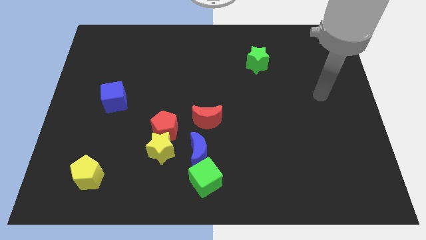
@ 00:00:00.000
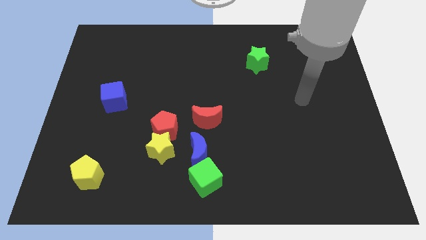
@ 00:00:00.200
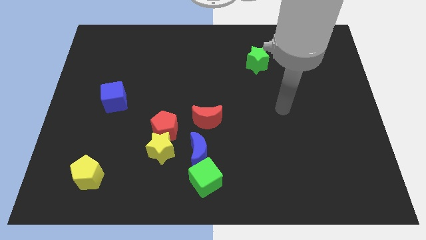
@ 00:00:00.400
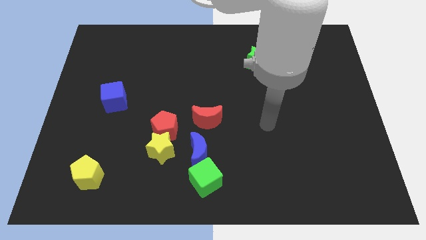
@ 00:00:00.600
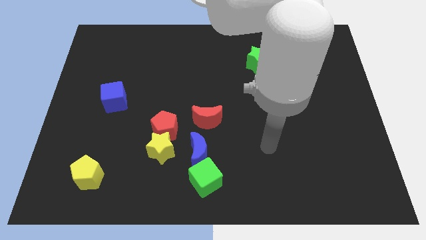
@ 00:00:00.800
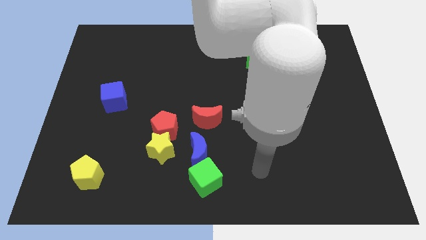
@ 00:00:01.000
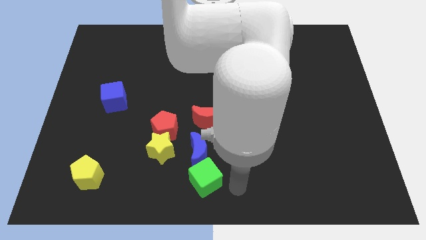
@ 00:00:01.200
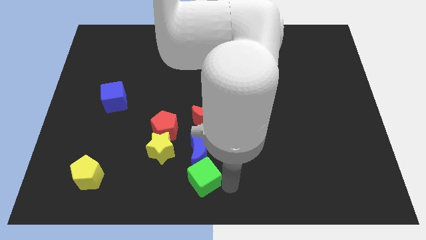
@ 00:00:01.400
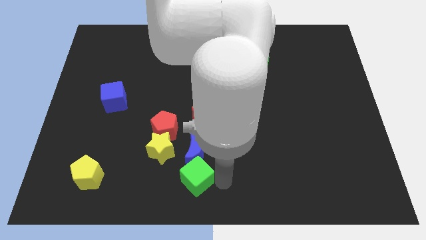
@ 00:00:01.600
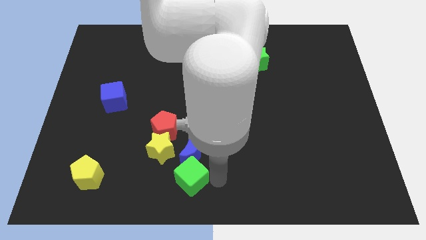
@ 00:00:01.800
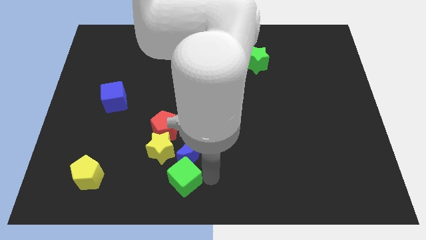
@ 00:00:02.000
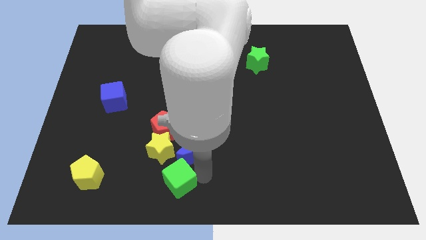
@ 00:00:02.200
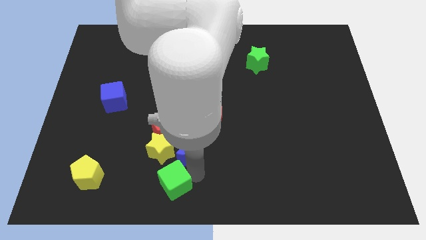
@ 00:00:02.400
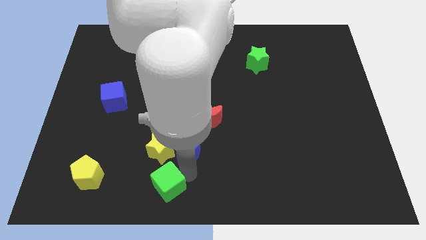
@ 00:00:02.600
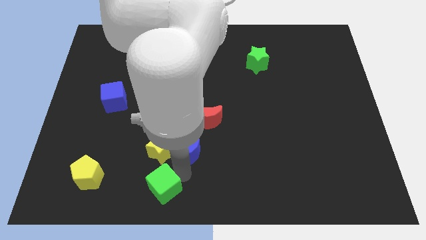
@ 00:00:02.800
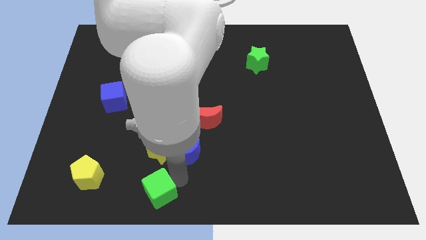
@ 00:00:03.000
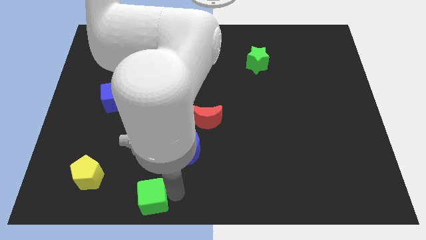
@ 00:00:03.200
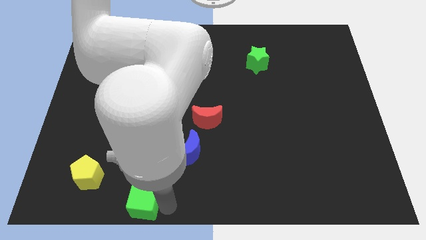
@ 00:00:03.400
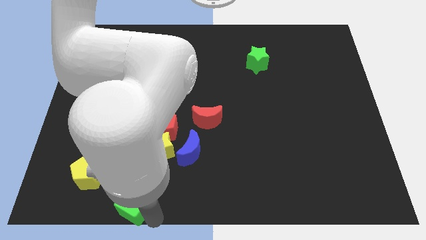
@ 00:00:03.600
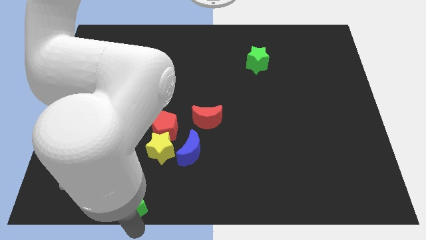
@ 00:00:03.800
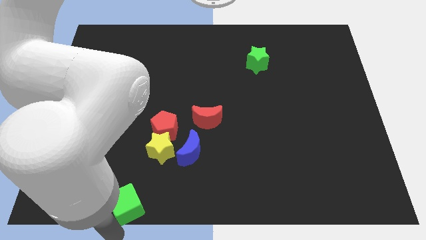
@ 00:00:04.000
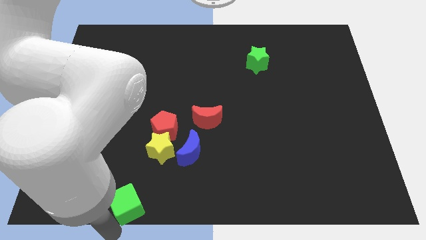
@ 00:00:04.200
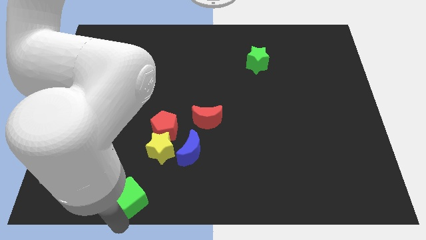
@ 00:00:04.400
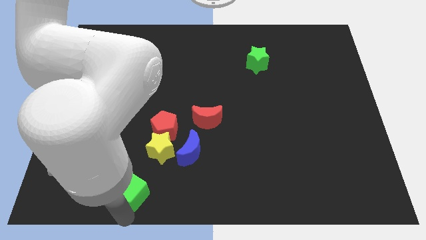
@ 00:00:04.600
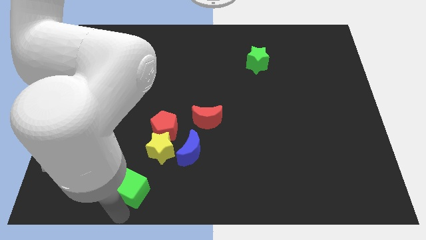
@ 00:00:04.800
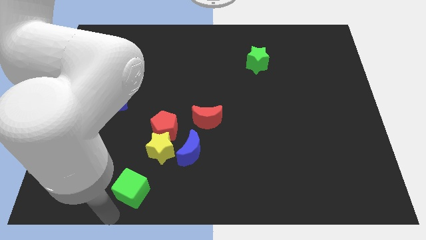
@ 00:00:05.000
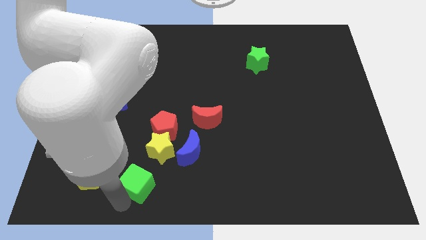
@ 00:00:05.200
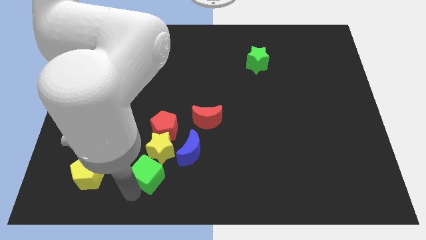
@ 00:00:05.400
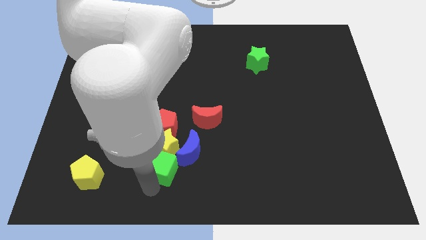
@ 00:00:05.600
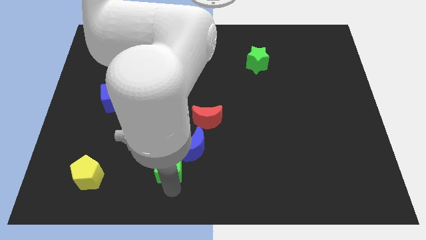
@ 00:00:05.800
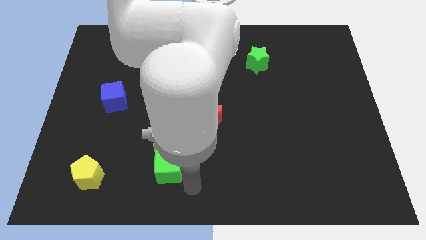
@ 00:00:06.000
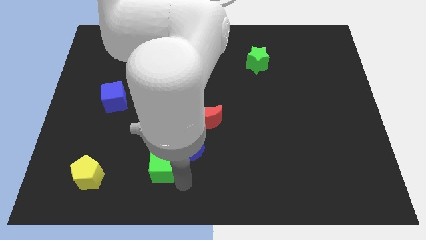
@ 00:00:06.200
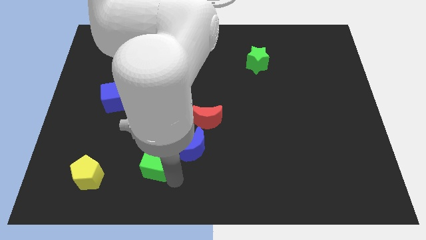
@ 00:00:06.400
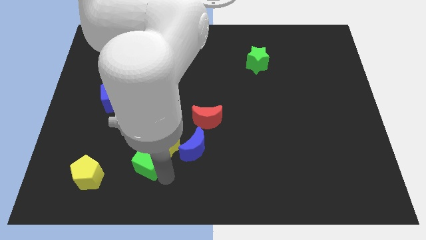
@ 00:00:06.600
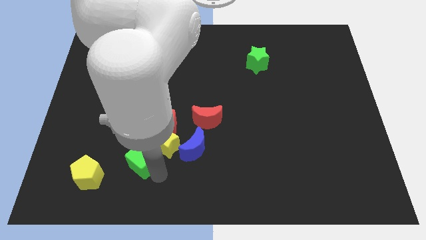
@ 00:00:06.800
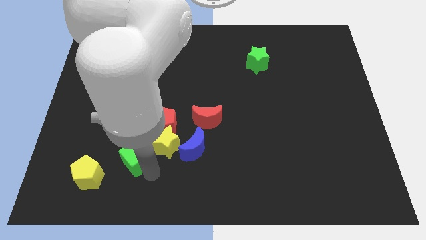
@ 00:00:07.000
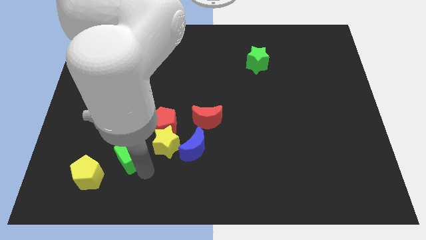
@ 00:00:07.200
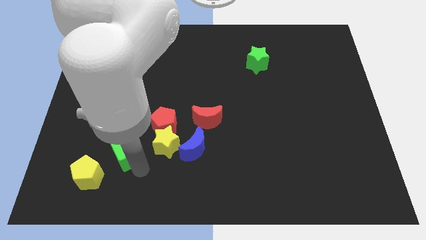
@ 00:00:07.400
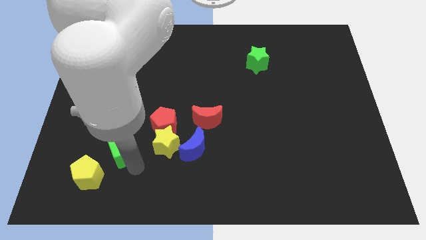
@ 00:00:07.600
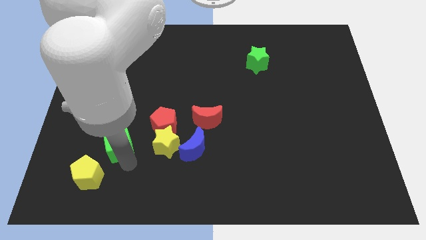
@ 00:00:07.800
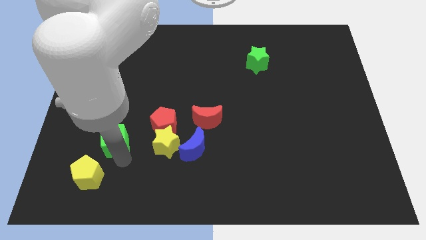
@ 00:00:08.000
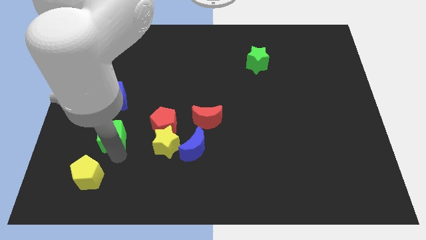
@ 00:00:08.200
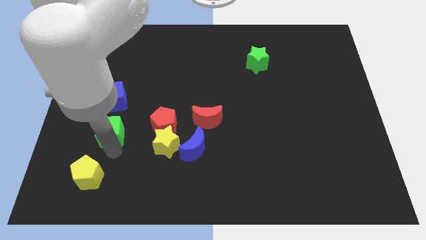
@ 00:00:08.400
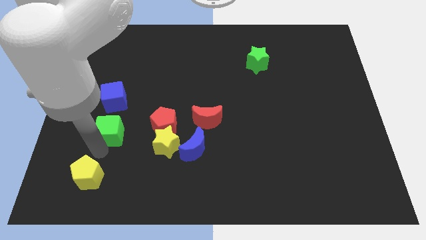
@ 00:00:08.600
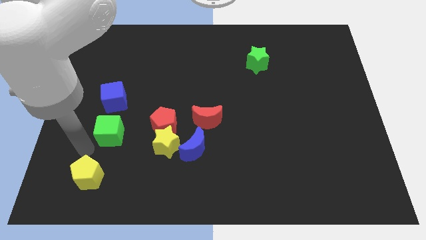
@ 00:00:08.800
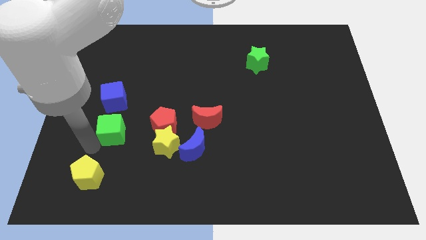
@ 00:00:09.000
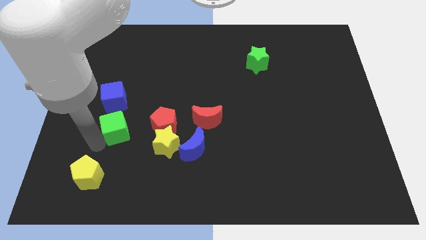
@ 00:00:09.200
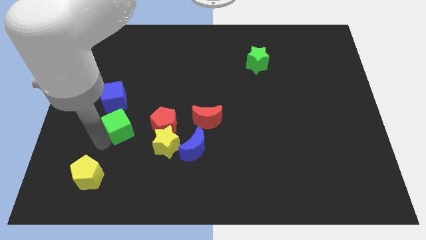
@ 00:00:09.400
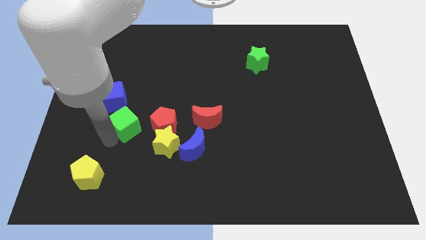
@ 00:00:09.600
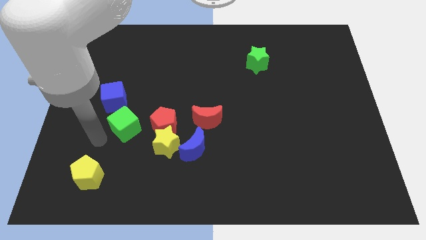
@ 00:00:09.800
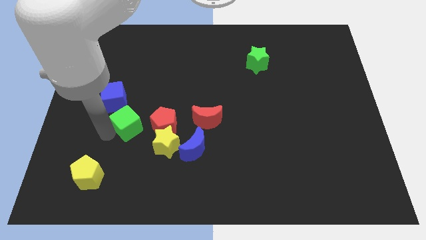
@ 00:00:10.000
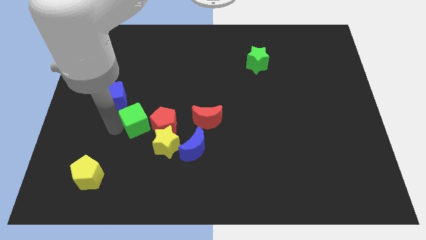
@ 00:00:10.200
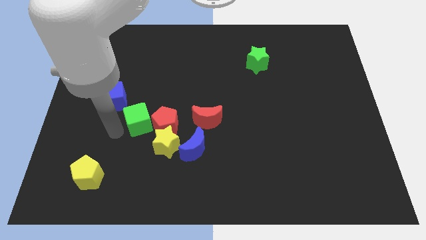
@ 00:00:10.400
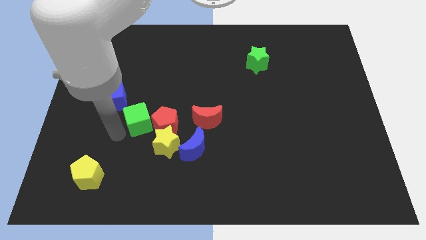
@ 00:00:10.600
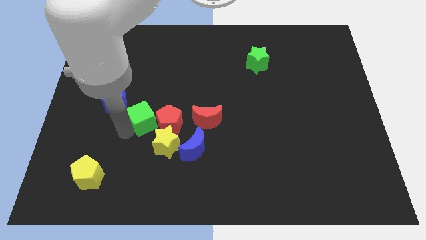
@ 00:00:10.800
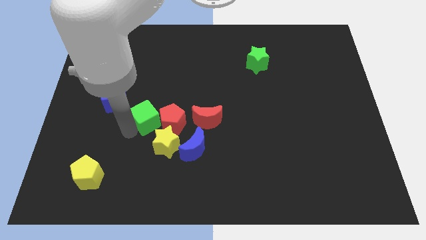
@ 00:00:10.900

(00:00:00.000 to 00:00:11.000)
push the green cube above the yellow star

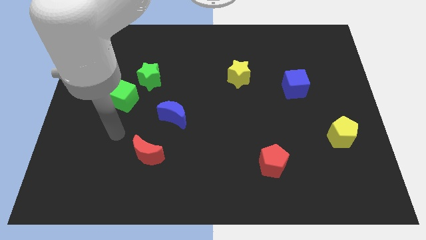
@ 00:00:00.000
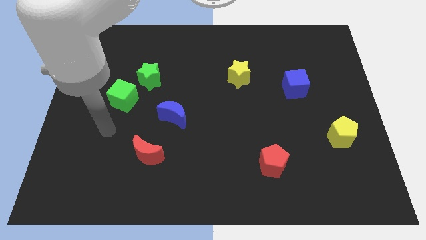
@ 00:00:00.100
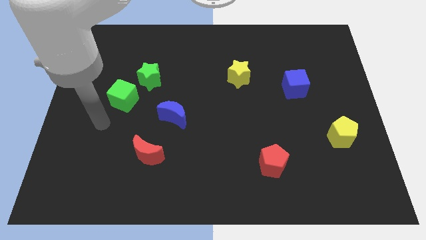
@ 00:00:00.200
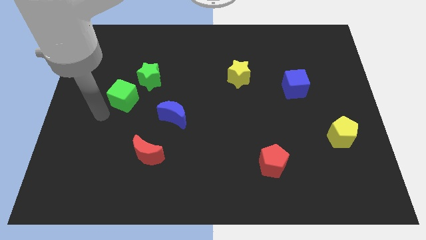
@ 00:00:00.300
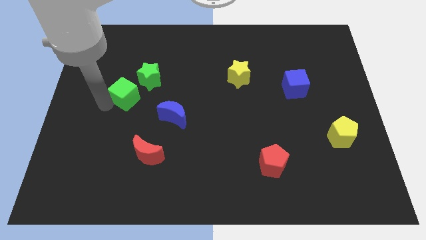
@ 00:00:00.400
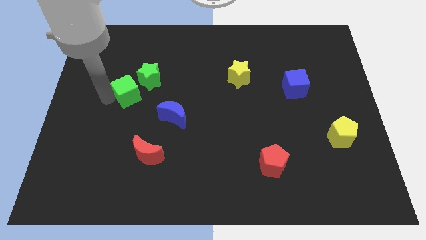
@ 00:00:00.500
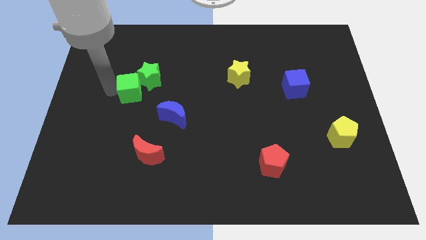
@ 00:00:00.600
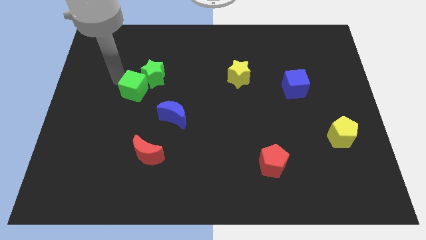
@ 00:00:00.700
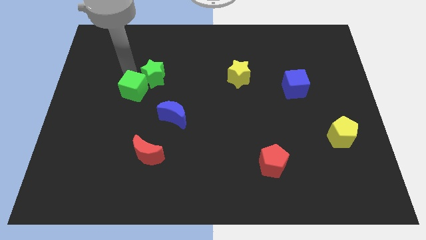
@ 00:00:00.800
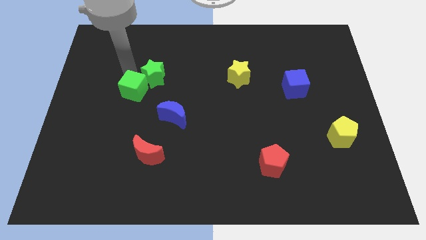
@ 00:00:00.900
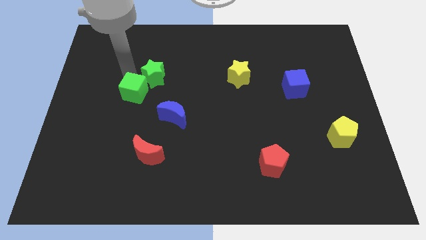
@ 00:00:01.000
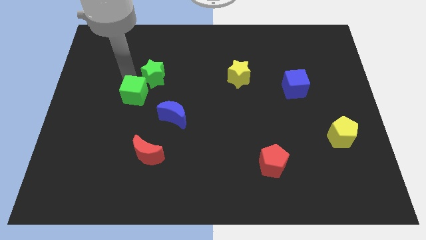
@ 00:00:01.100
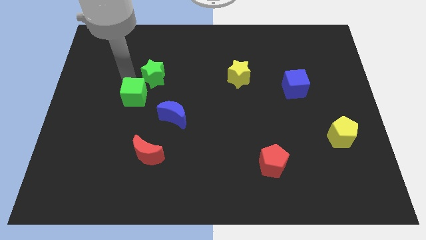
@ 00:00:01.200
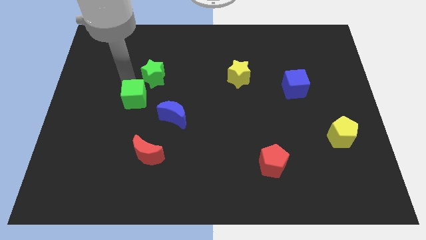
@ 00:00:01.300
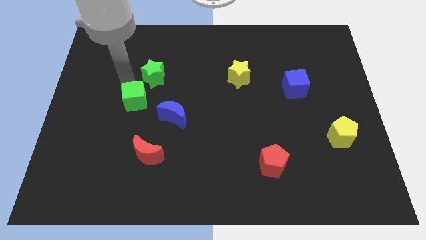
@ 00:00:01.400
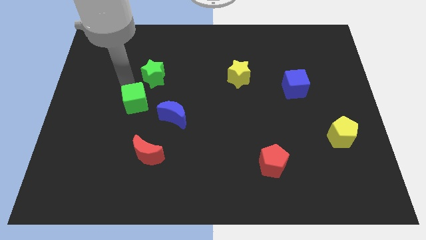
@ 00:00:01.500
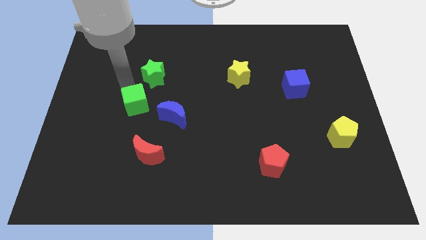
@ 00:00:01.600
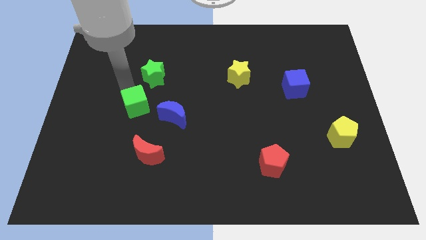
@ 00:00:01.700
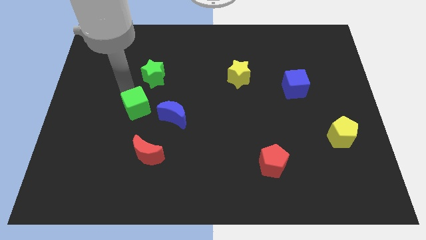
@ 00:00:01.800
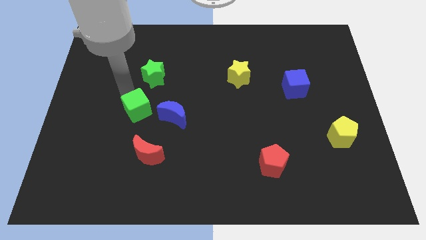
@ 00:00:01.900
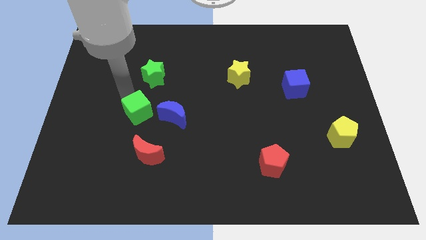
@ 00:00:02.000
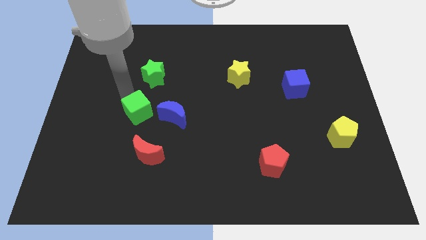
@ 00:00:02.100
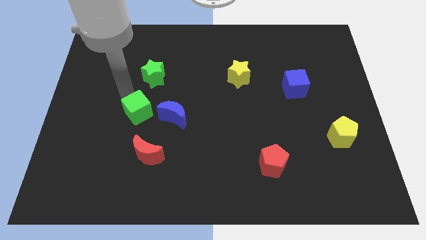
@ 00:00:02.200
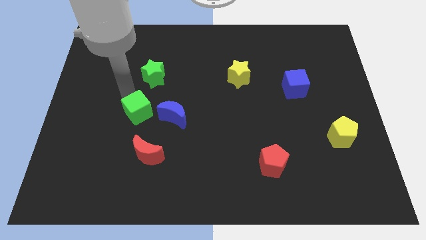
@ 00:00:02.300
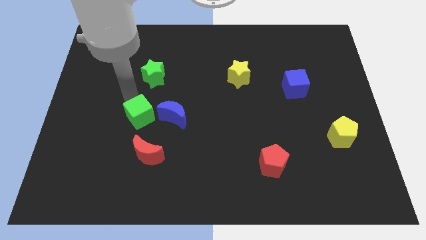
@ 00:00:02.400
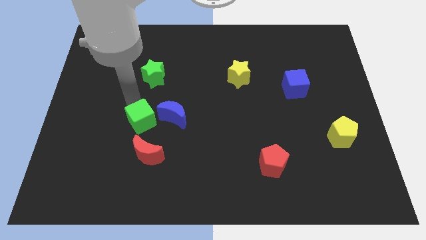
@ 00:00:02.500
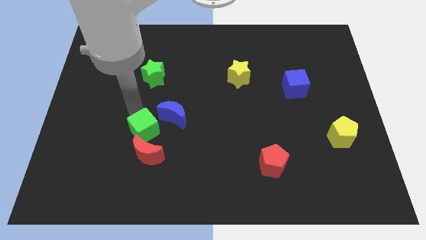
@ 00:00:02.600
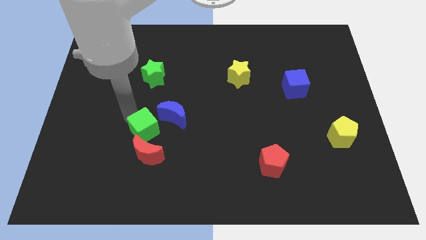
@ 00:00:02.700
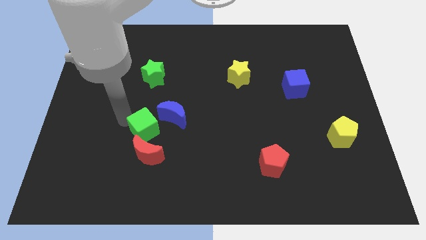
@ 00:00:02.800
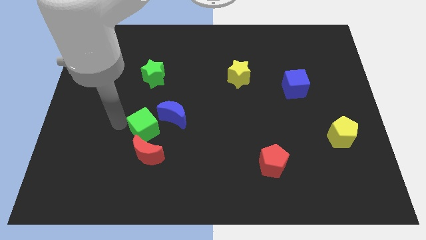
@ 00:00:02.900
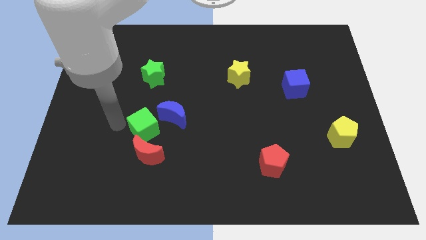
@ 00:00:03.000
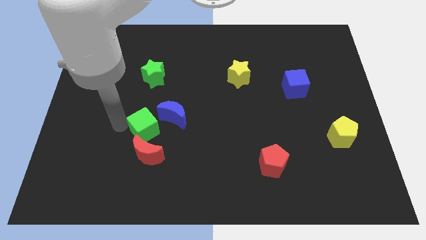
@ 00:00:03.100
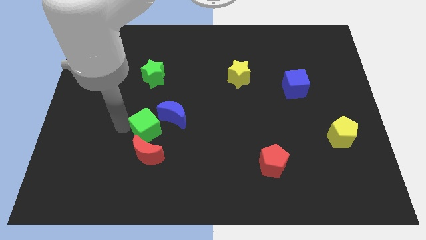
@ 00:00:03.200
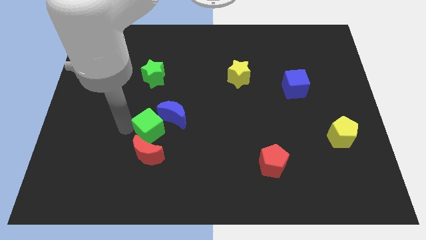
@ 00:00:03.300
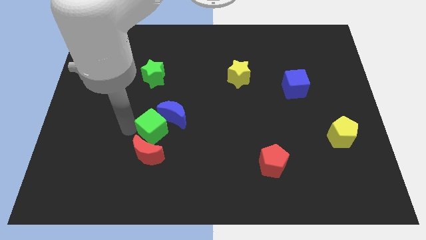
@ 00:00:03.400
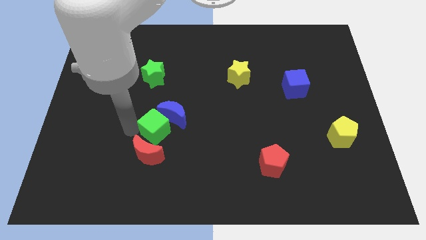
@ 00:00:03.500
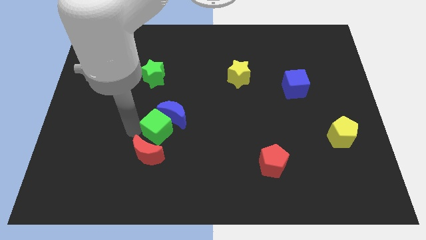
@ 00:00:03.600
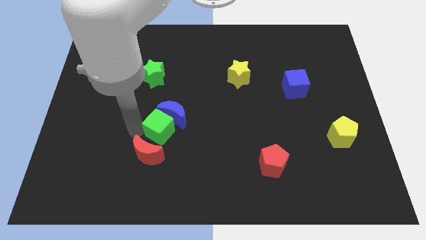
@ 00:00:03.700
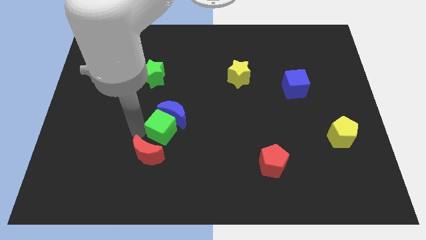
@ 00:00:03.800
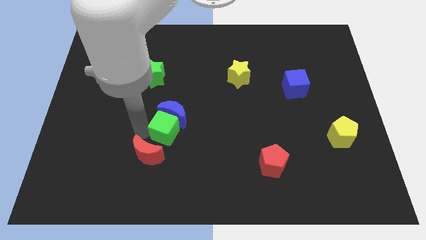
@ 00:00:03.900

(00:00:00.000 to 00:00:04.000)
put the green cube diagonally down and to the right of the blue moon
